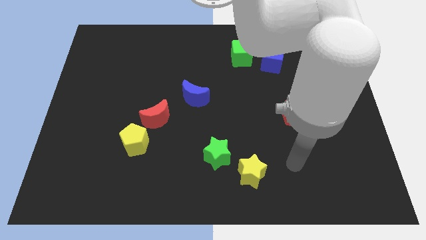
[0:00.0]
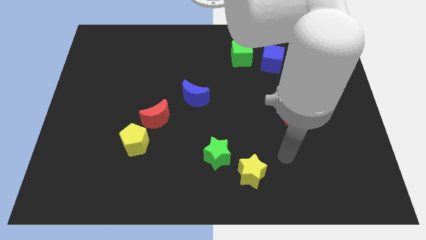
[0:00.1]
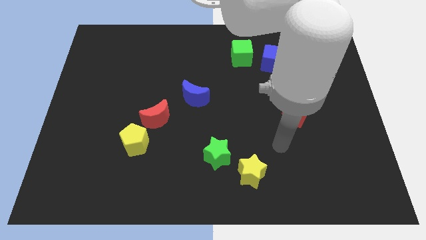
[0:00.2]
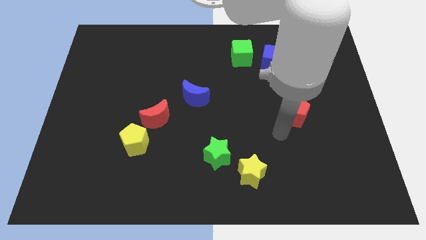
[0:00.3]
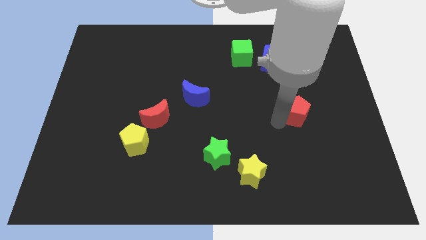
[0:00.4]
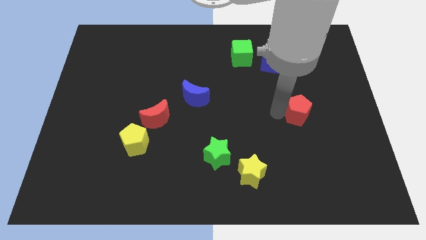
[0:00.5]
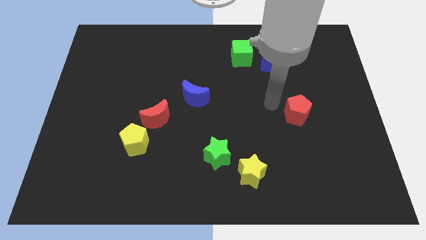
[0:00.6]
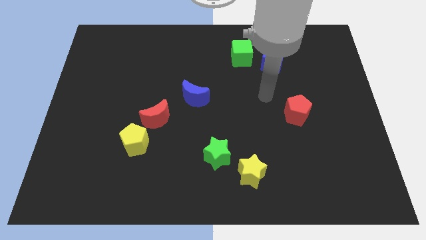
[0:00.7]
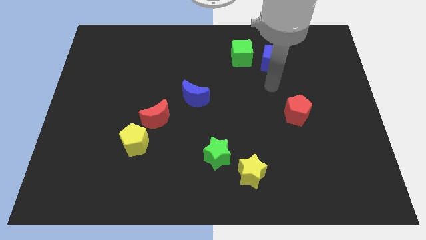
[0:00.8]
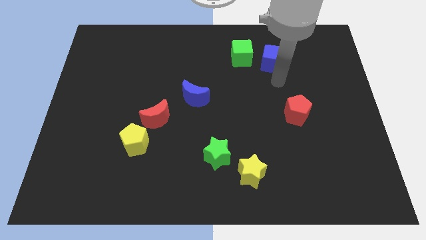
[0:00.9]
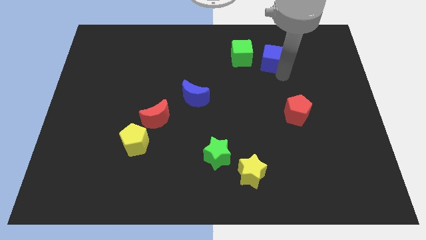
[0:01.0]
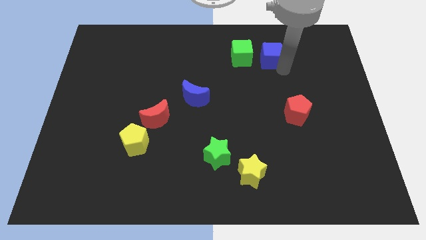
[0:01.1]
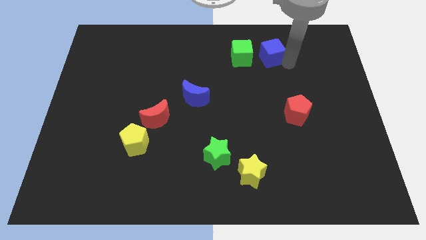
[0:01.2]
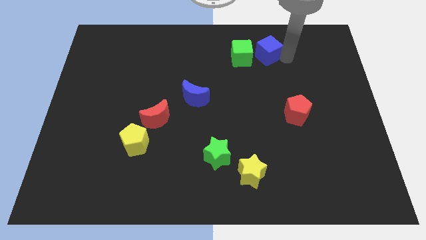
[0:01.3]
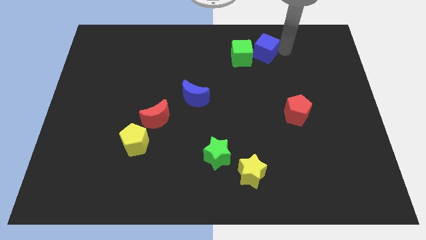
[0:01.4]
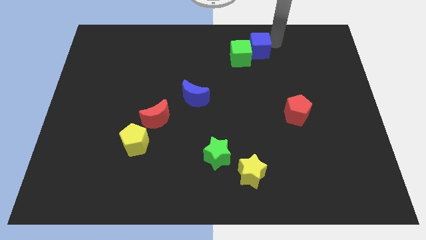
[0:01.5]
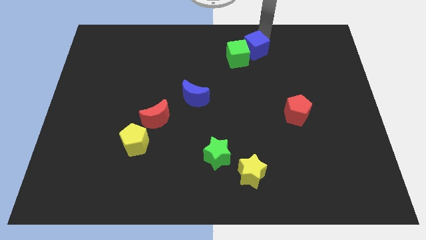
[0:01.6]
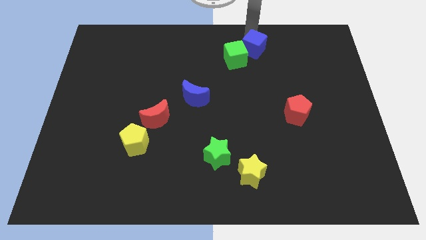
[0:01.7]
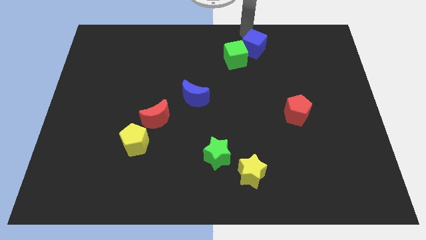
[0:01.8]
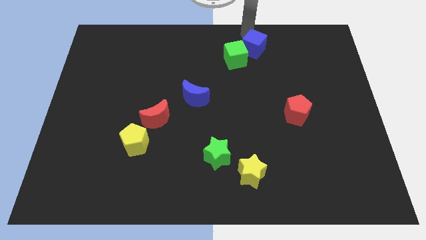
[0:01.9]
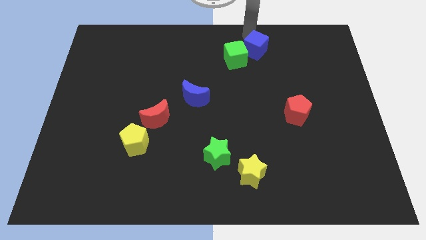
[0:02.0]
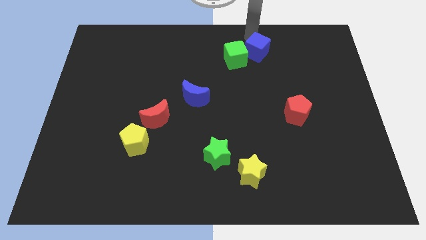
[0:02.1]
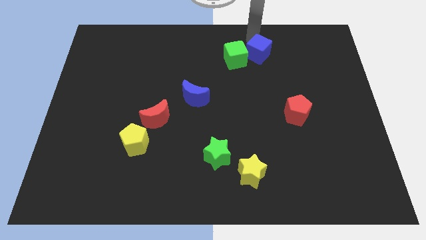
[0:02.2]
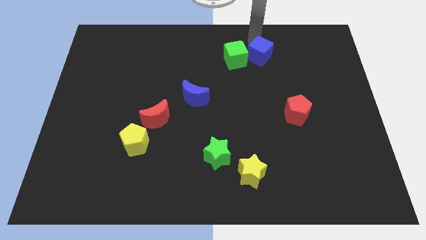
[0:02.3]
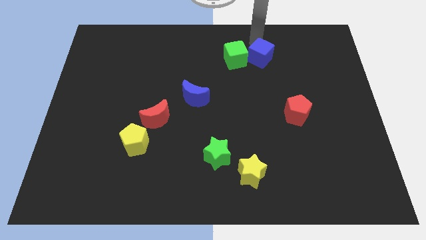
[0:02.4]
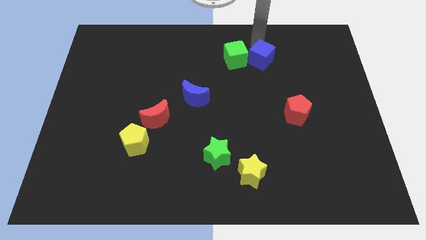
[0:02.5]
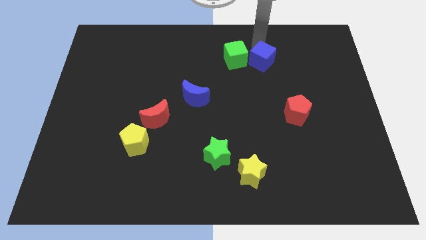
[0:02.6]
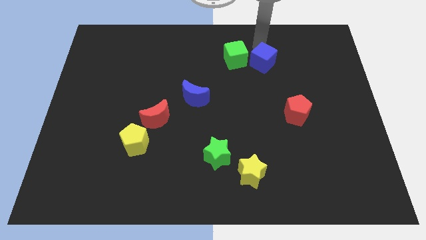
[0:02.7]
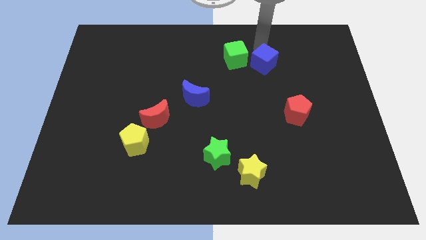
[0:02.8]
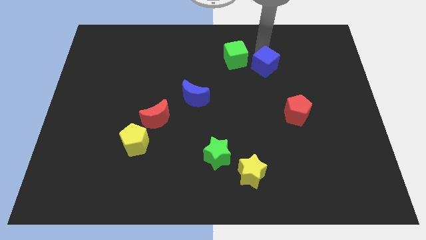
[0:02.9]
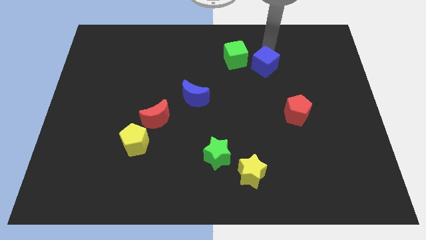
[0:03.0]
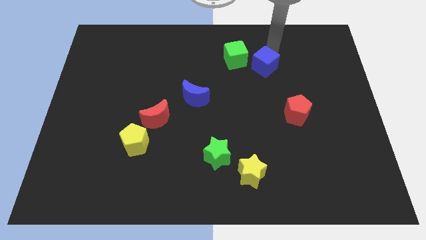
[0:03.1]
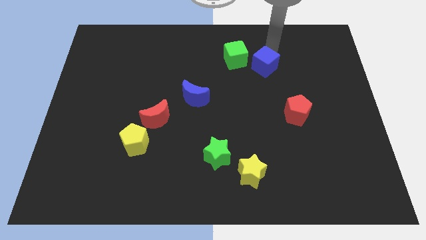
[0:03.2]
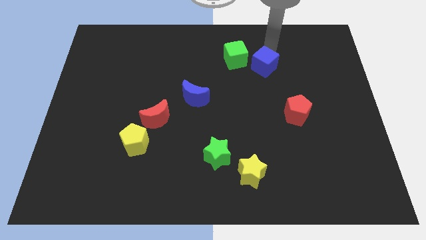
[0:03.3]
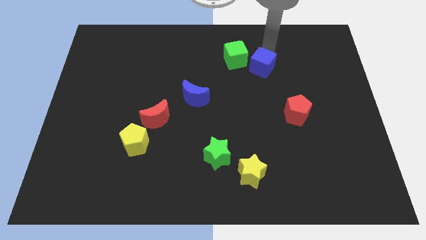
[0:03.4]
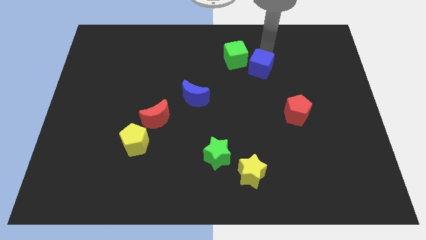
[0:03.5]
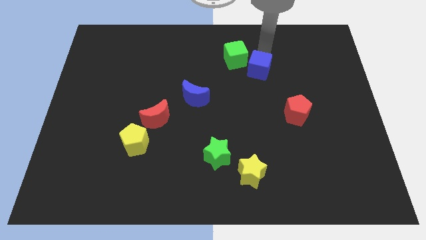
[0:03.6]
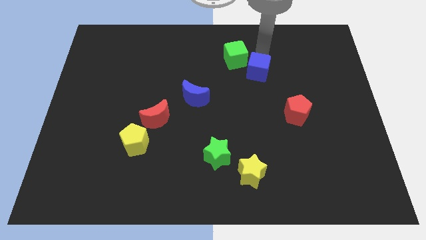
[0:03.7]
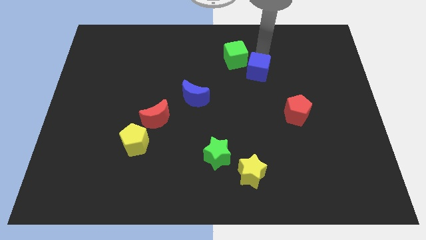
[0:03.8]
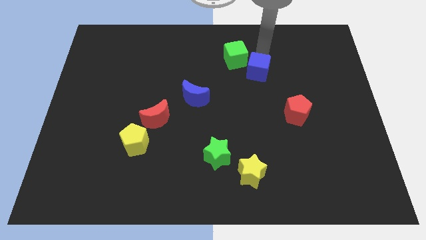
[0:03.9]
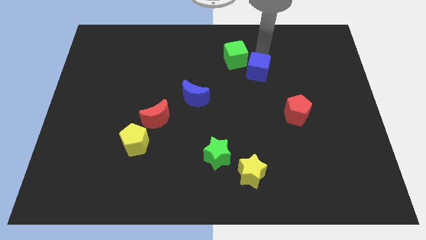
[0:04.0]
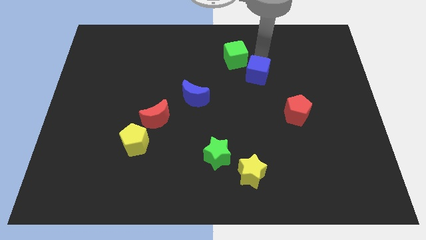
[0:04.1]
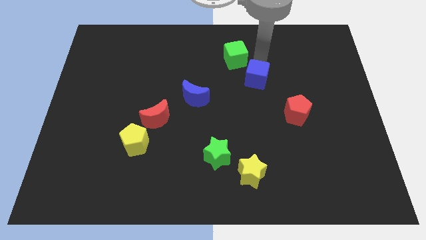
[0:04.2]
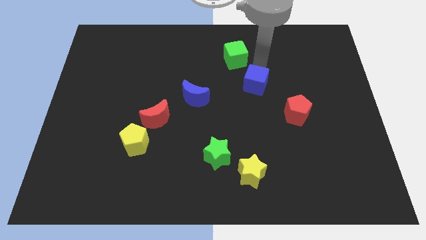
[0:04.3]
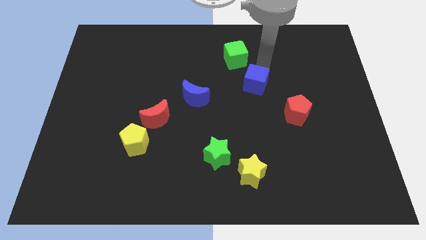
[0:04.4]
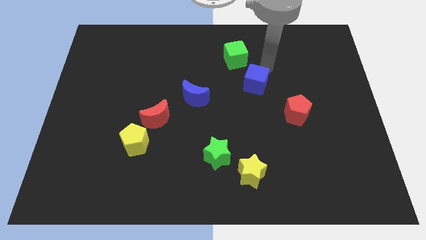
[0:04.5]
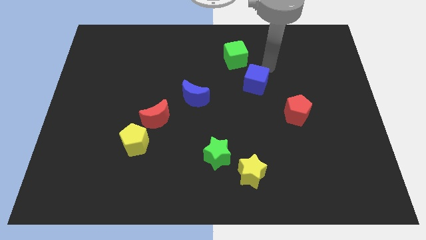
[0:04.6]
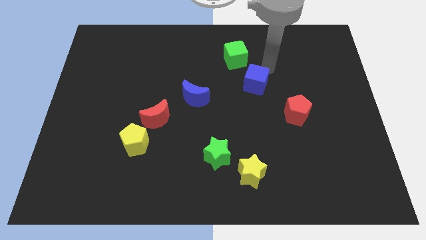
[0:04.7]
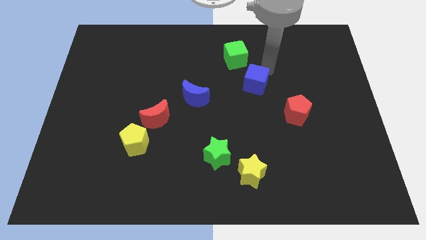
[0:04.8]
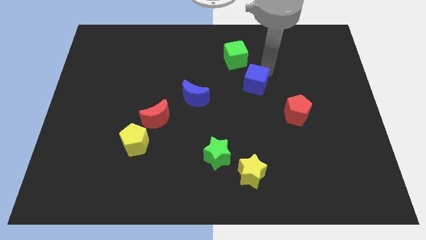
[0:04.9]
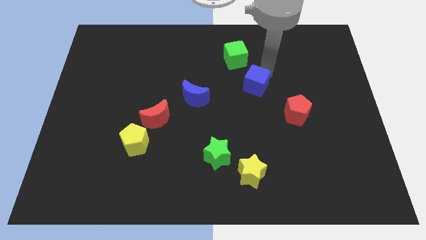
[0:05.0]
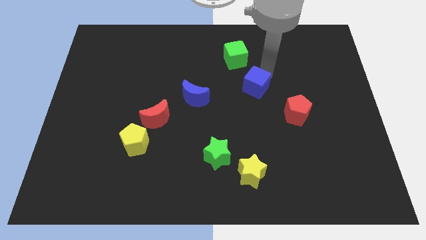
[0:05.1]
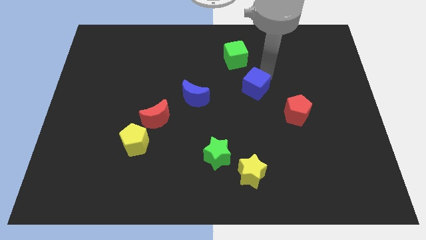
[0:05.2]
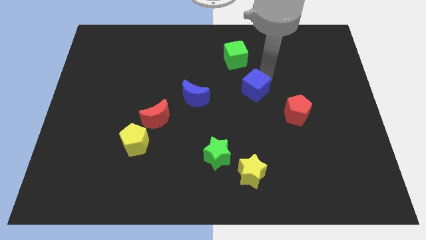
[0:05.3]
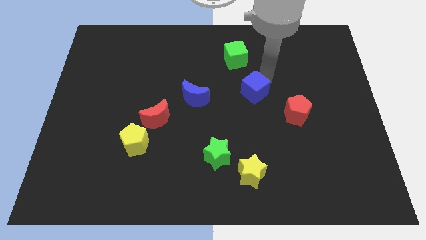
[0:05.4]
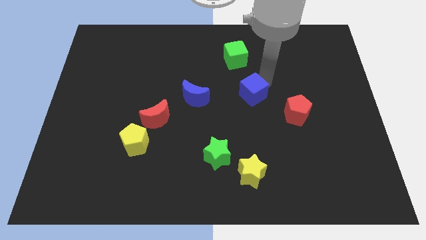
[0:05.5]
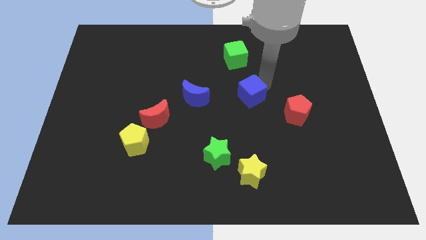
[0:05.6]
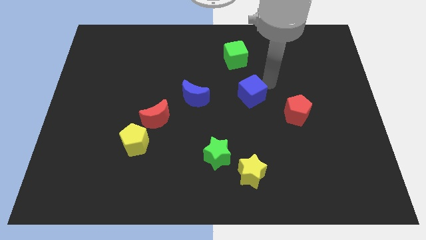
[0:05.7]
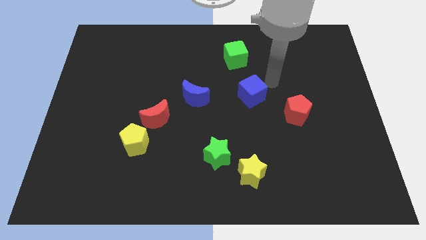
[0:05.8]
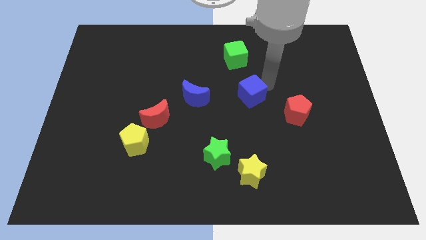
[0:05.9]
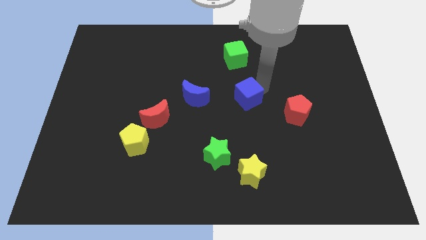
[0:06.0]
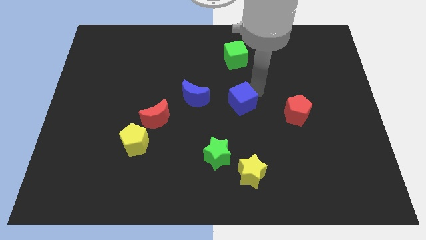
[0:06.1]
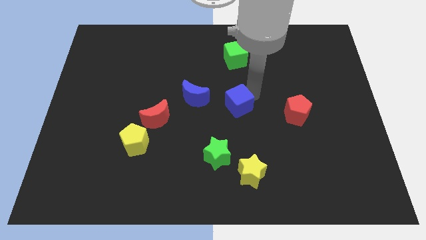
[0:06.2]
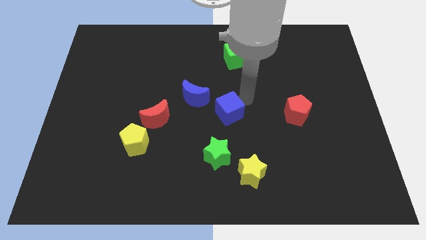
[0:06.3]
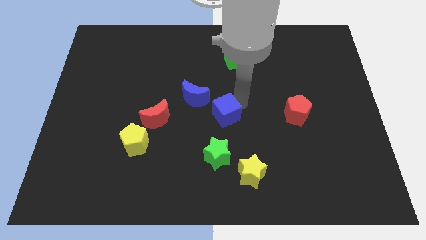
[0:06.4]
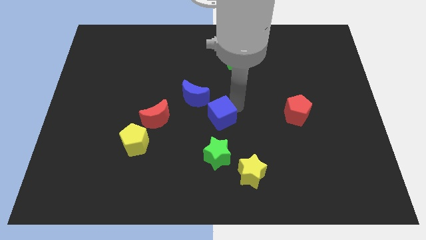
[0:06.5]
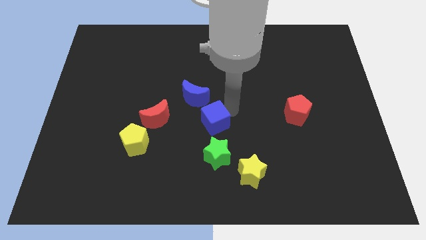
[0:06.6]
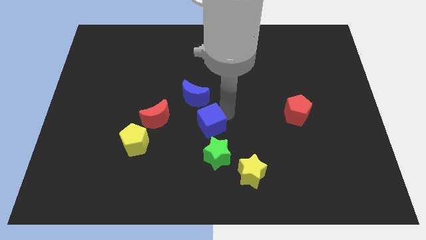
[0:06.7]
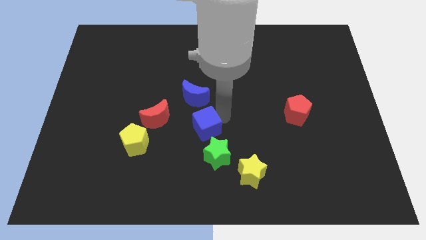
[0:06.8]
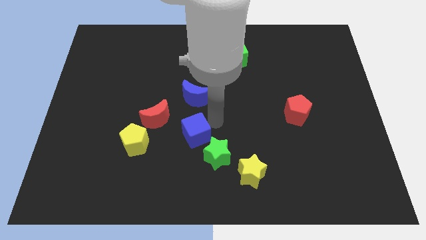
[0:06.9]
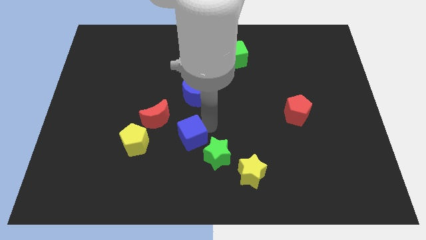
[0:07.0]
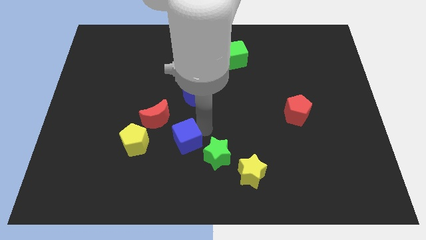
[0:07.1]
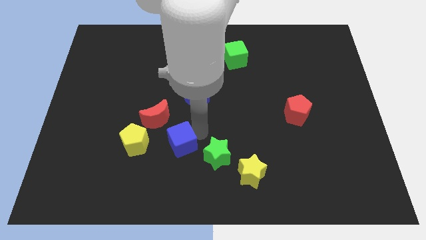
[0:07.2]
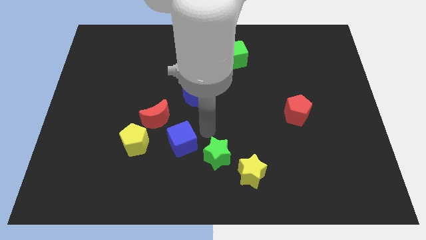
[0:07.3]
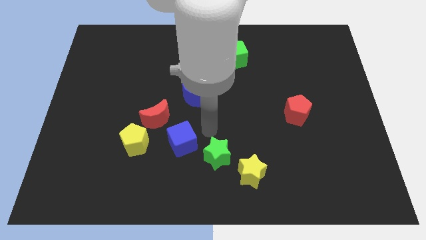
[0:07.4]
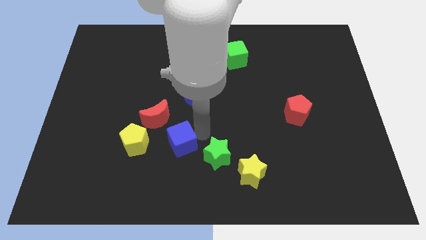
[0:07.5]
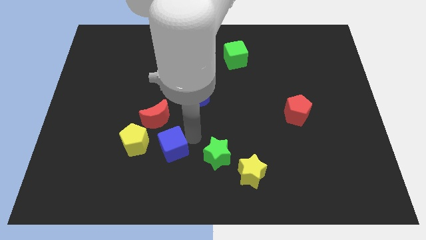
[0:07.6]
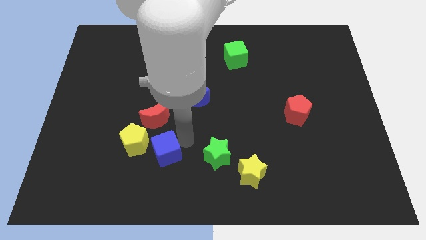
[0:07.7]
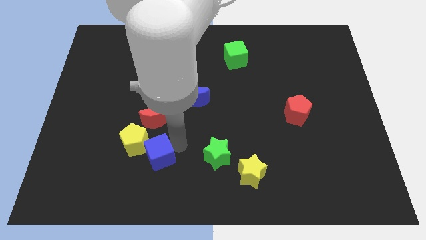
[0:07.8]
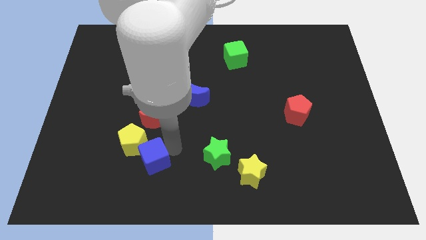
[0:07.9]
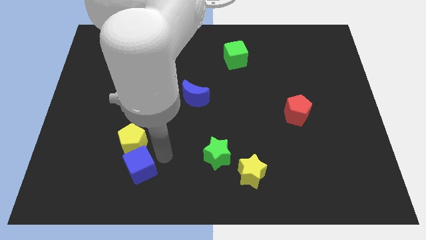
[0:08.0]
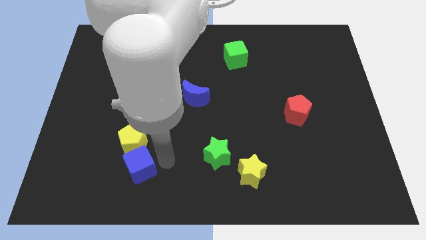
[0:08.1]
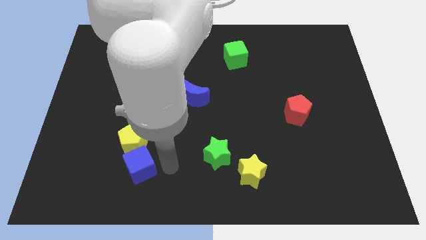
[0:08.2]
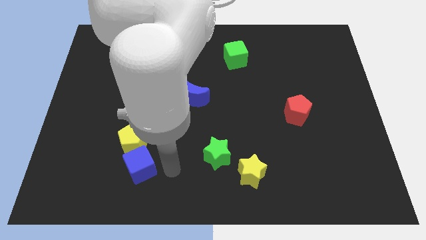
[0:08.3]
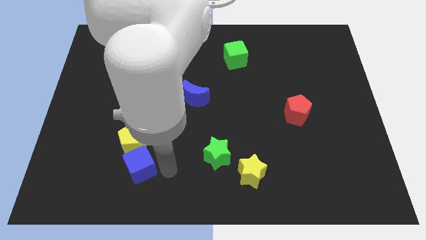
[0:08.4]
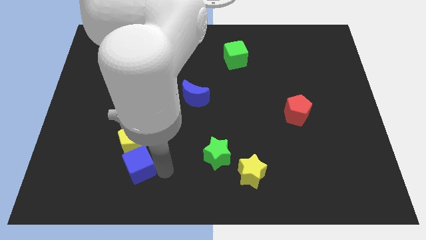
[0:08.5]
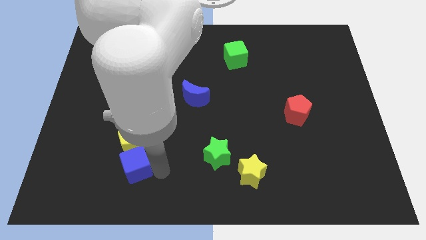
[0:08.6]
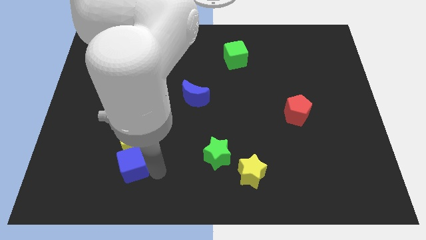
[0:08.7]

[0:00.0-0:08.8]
put the blue cube to the bottom left of the yellow pentagon
